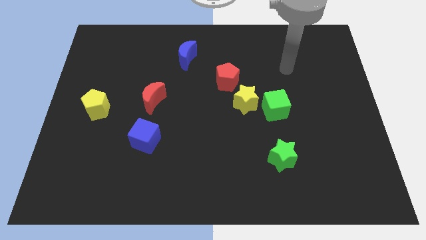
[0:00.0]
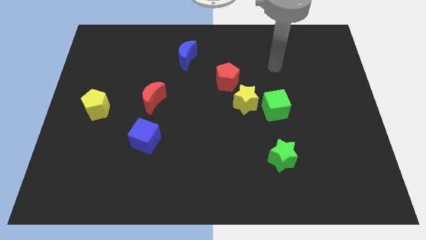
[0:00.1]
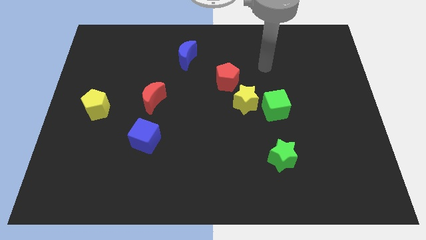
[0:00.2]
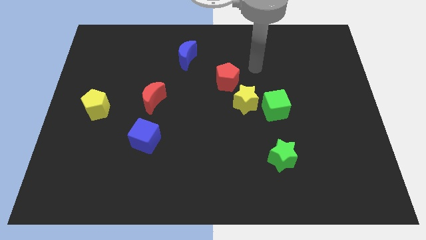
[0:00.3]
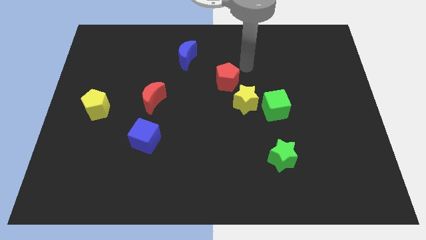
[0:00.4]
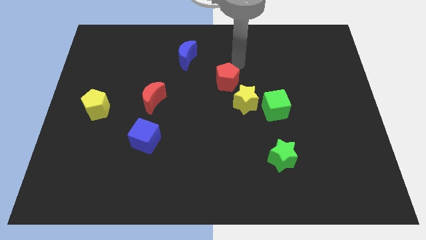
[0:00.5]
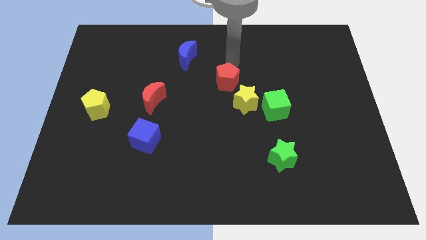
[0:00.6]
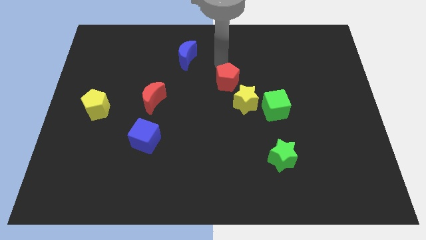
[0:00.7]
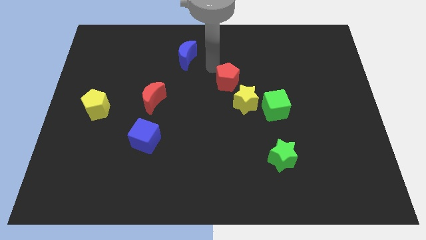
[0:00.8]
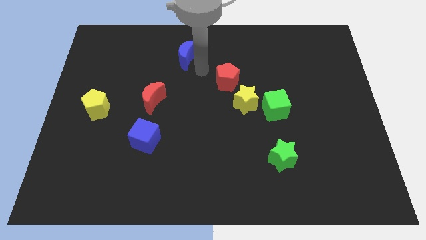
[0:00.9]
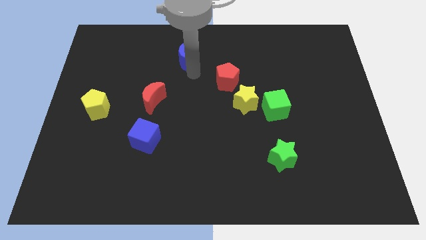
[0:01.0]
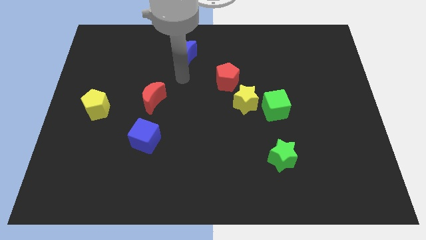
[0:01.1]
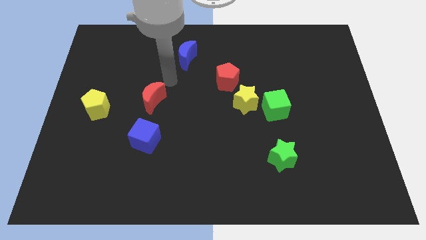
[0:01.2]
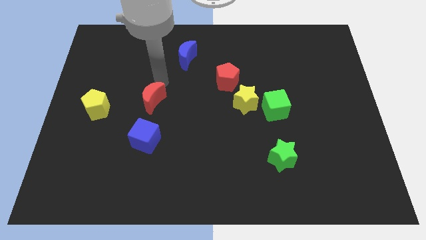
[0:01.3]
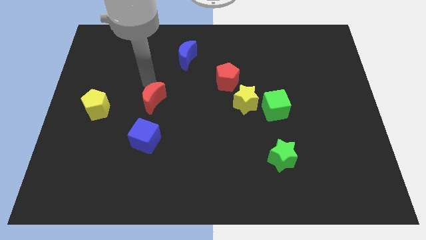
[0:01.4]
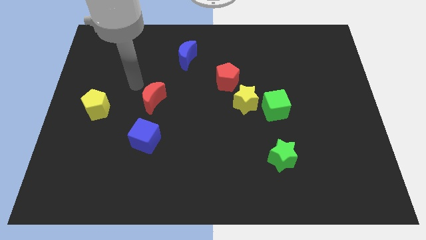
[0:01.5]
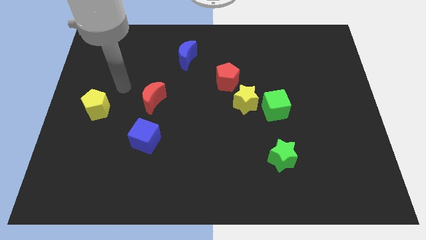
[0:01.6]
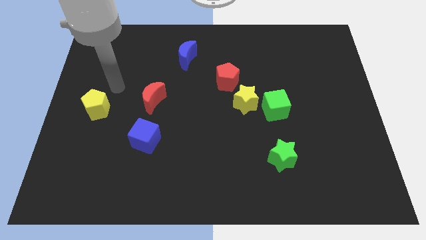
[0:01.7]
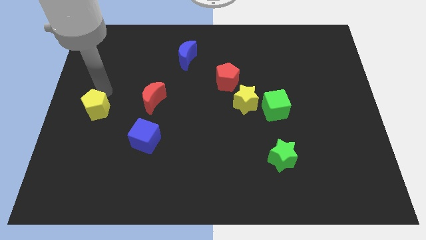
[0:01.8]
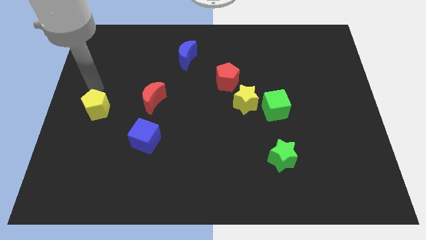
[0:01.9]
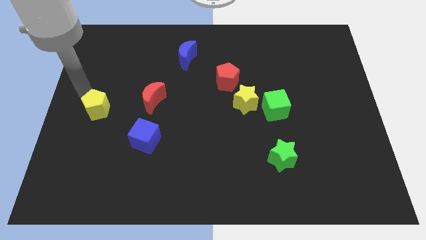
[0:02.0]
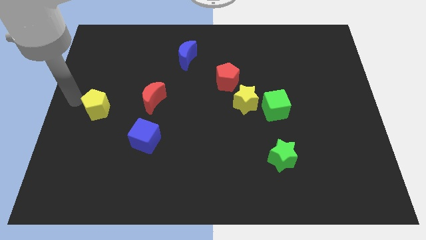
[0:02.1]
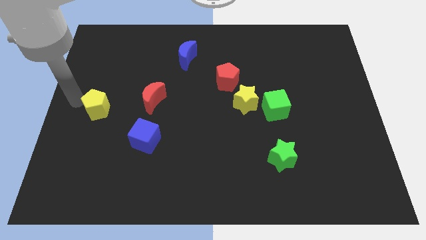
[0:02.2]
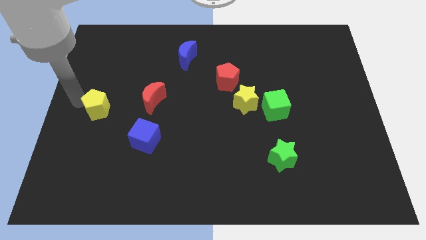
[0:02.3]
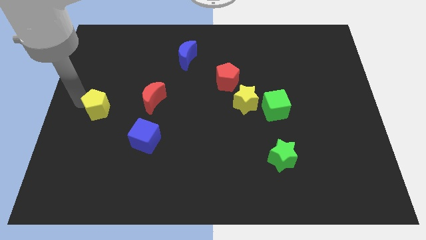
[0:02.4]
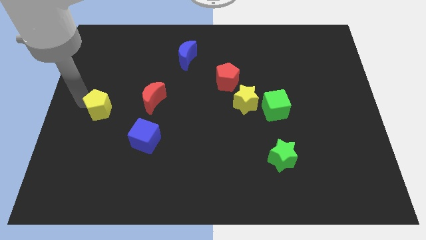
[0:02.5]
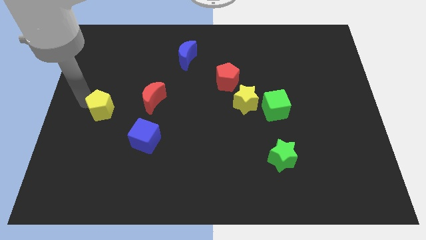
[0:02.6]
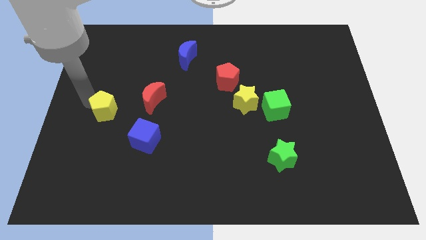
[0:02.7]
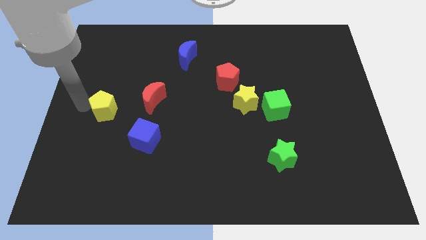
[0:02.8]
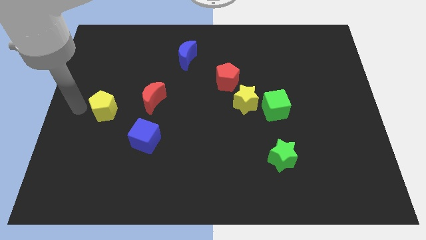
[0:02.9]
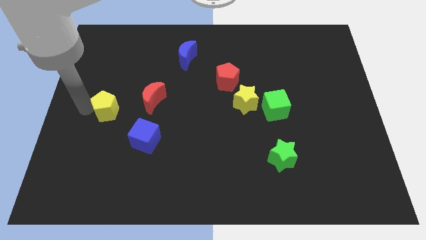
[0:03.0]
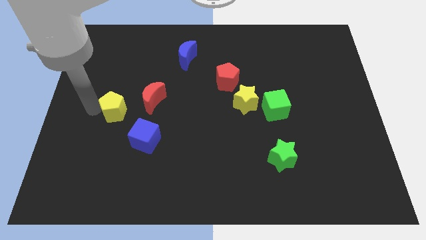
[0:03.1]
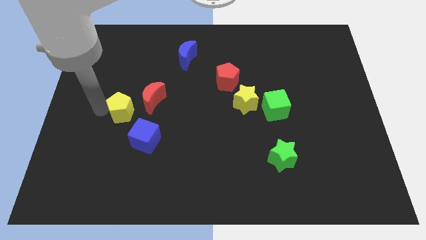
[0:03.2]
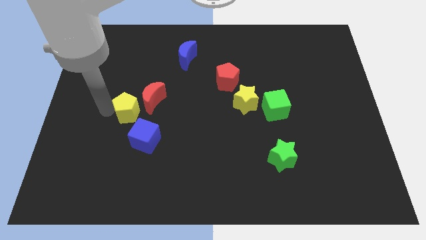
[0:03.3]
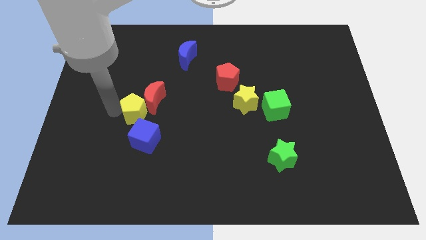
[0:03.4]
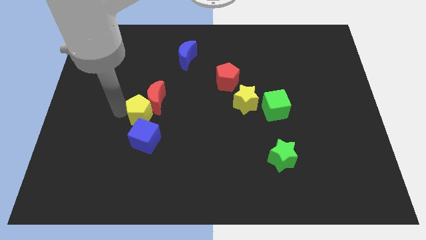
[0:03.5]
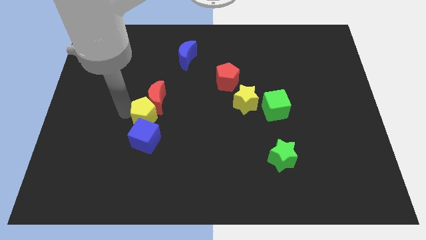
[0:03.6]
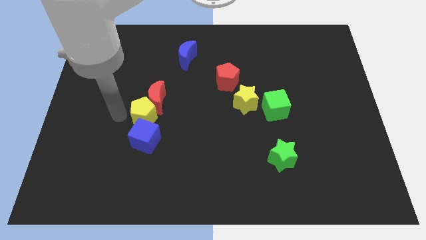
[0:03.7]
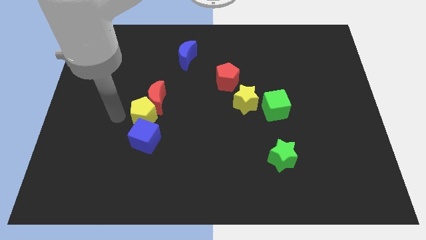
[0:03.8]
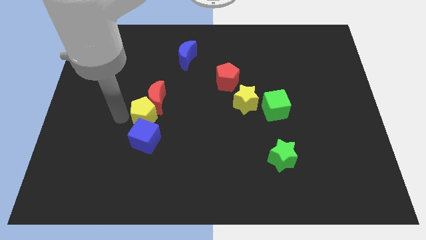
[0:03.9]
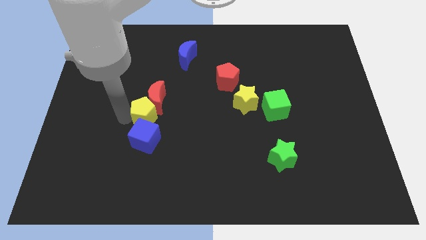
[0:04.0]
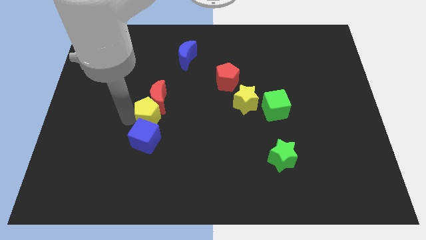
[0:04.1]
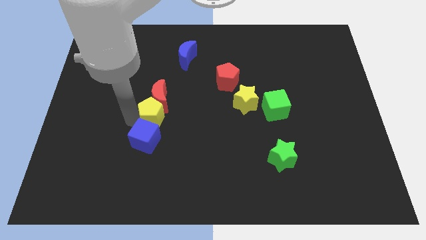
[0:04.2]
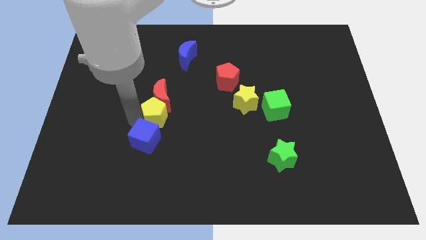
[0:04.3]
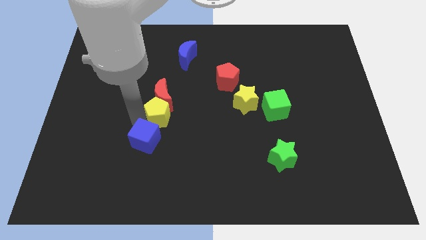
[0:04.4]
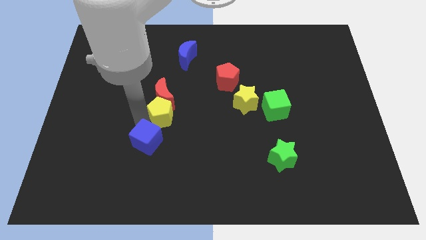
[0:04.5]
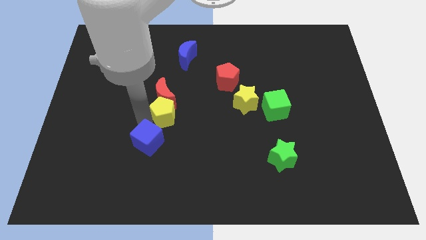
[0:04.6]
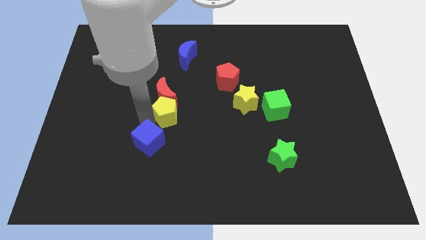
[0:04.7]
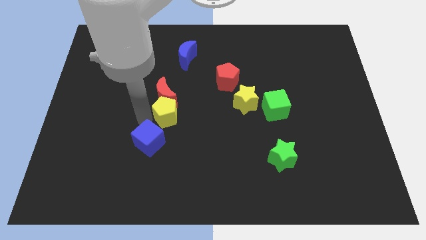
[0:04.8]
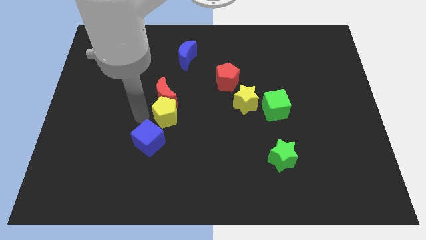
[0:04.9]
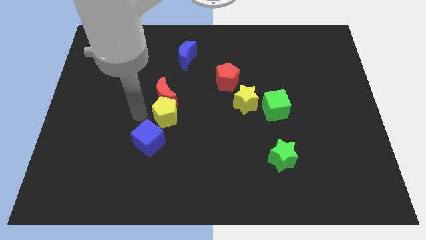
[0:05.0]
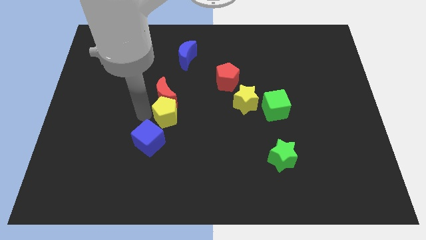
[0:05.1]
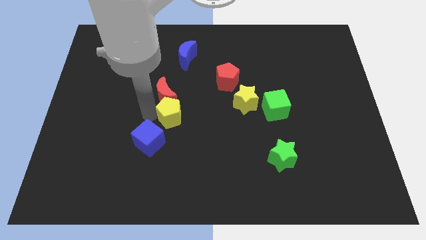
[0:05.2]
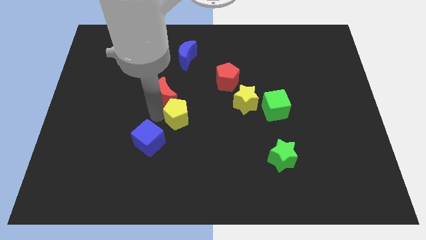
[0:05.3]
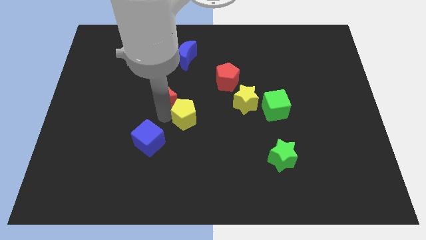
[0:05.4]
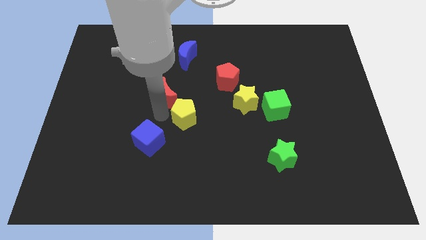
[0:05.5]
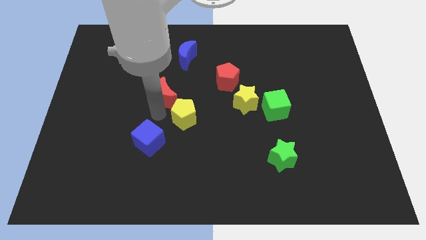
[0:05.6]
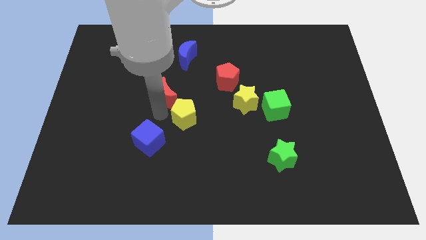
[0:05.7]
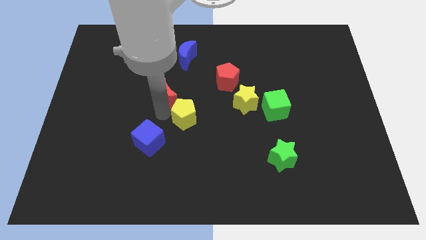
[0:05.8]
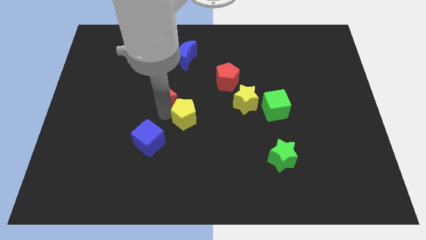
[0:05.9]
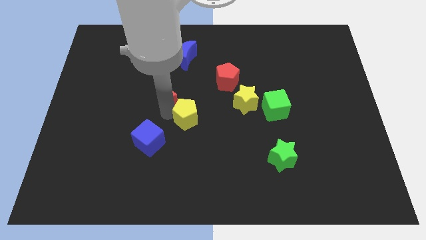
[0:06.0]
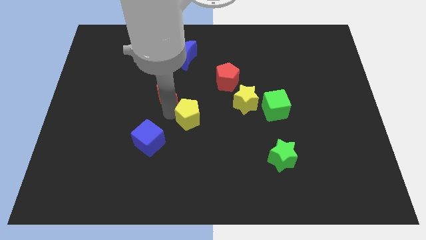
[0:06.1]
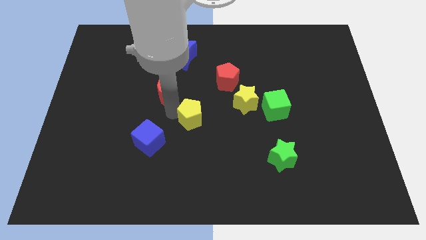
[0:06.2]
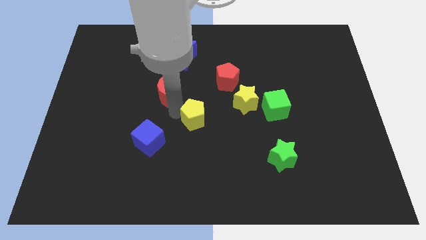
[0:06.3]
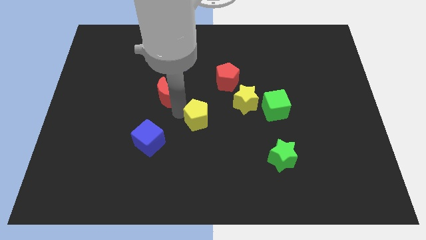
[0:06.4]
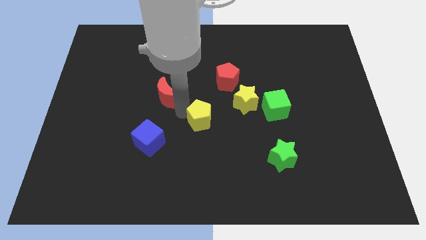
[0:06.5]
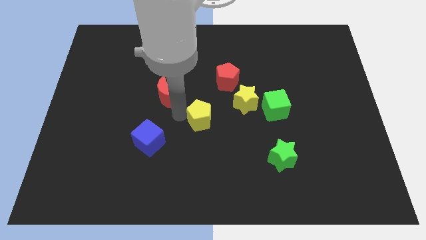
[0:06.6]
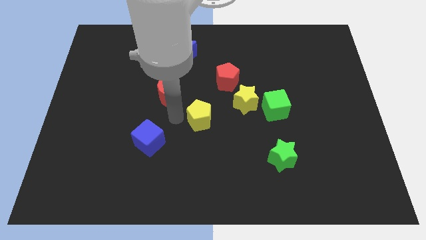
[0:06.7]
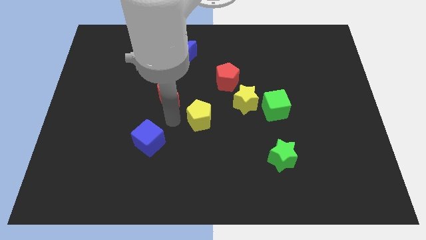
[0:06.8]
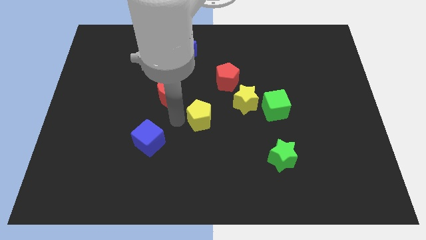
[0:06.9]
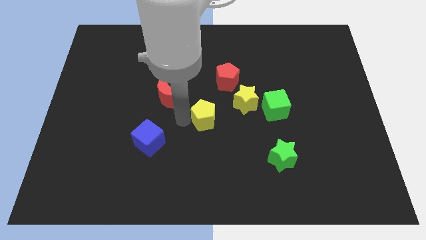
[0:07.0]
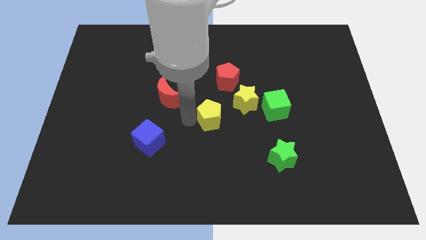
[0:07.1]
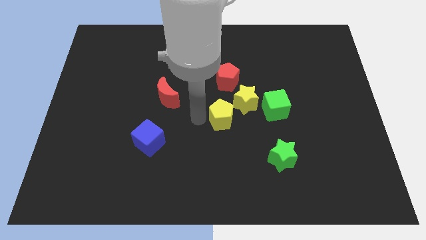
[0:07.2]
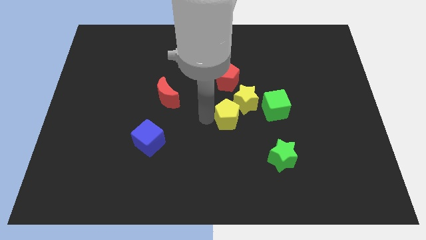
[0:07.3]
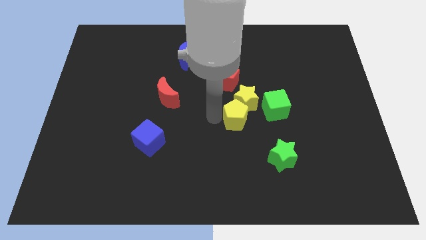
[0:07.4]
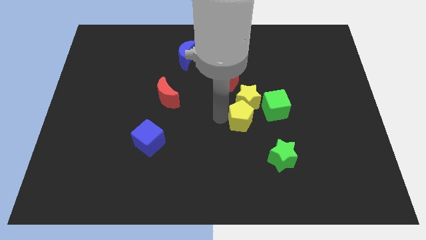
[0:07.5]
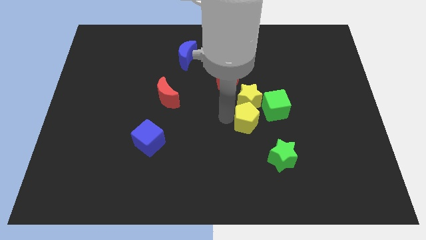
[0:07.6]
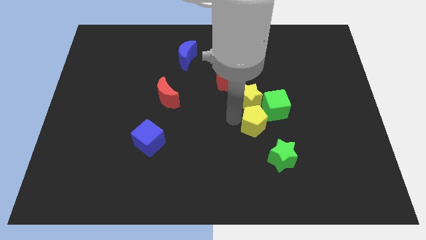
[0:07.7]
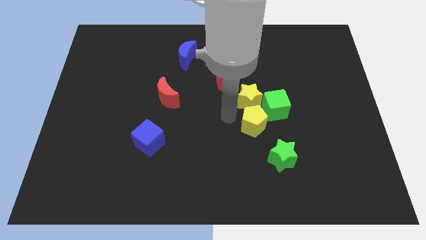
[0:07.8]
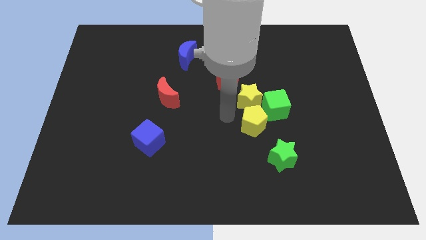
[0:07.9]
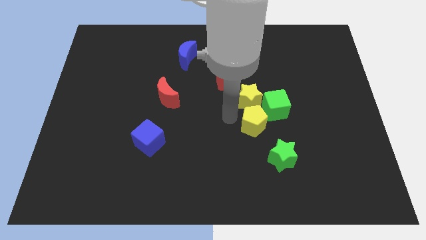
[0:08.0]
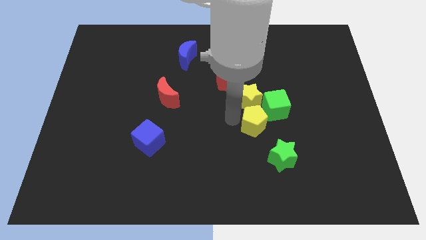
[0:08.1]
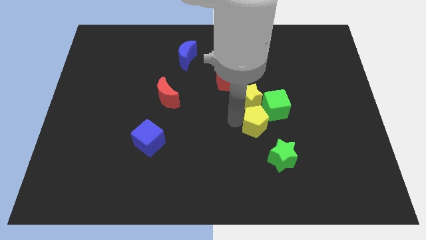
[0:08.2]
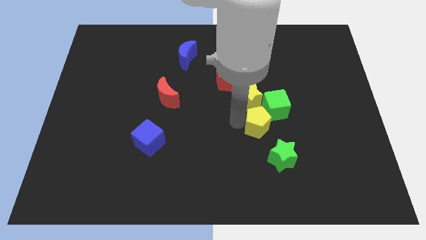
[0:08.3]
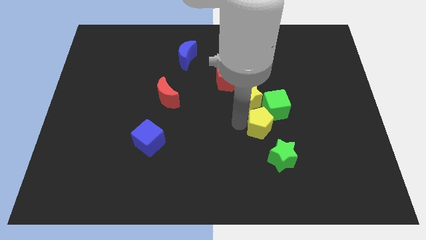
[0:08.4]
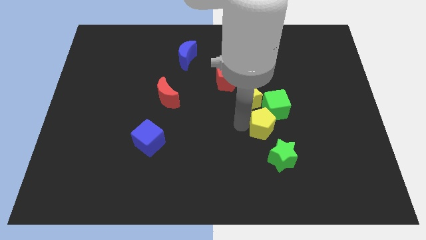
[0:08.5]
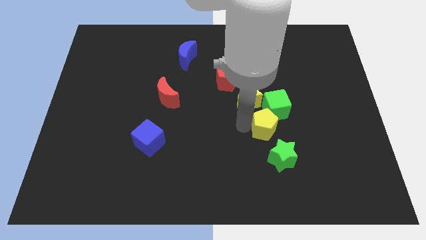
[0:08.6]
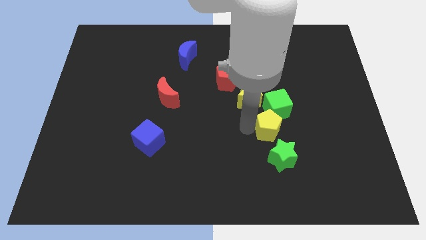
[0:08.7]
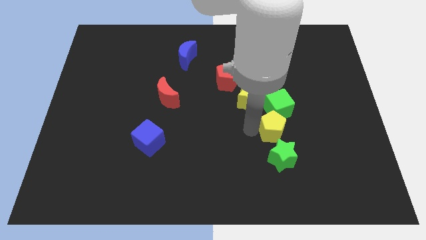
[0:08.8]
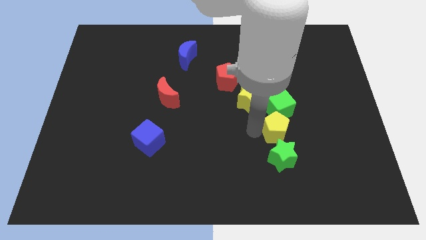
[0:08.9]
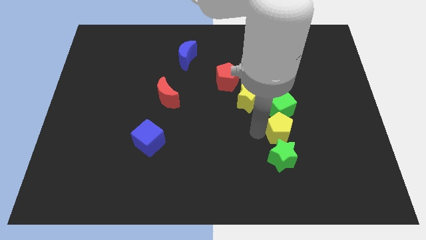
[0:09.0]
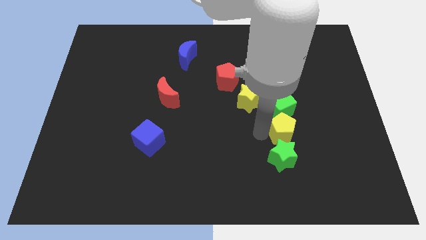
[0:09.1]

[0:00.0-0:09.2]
push the yellow pentagon to the bottom right side of the green cube
